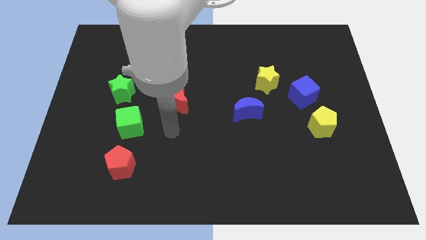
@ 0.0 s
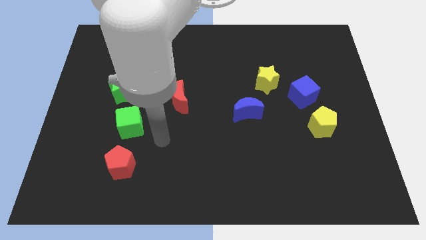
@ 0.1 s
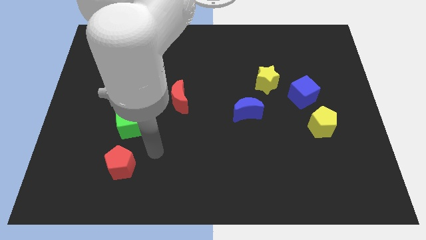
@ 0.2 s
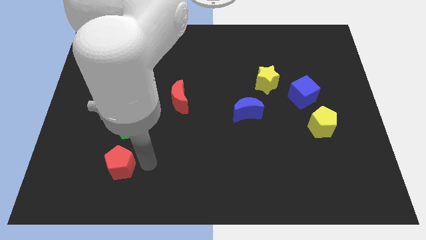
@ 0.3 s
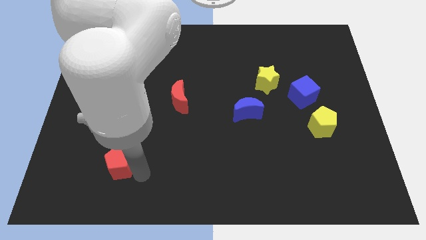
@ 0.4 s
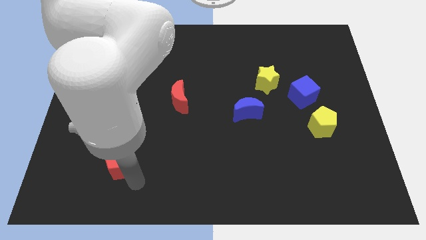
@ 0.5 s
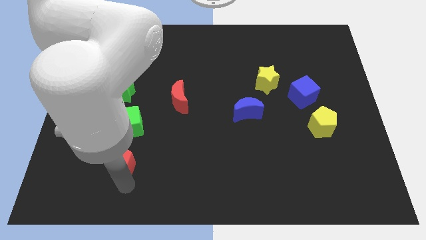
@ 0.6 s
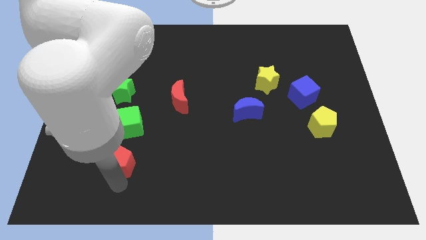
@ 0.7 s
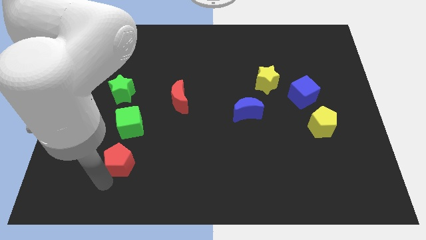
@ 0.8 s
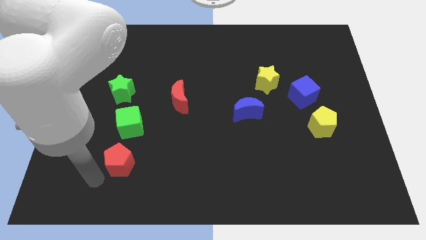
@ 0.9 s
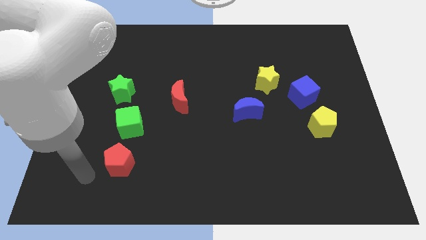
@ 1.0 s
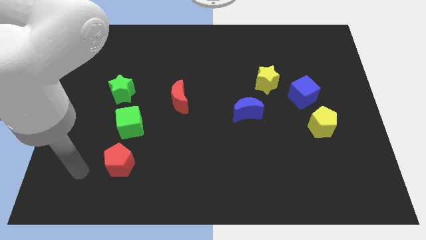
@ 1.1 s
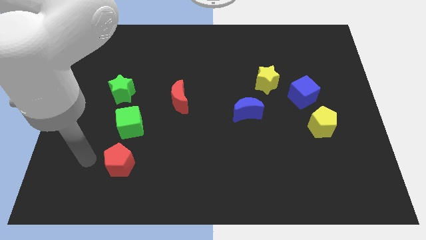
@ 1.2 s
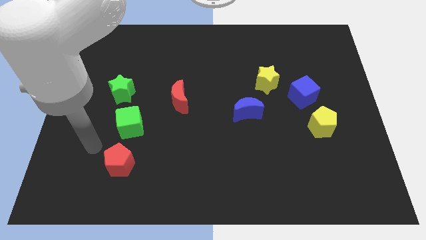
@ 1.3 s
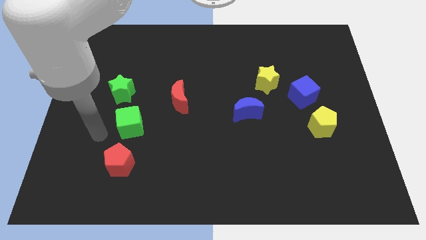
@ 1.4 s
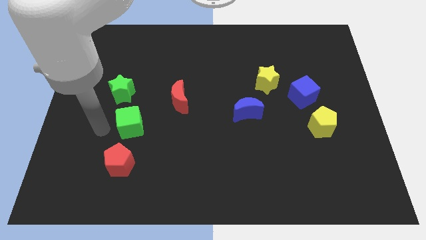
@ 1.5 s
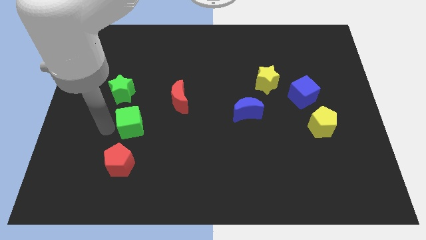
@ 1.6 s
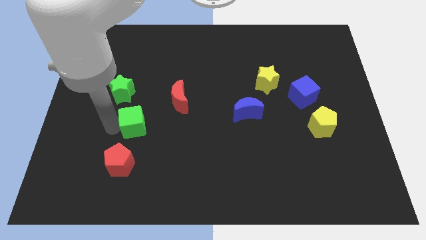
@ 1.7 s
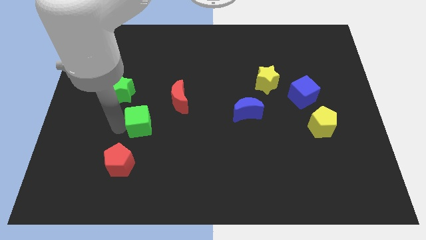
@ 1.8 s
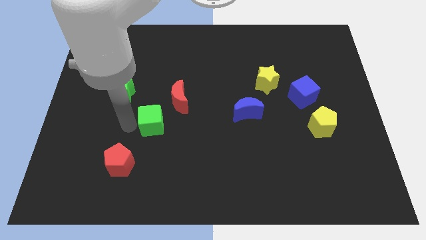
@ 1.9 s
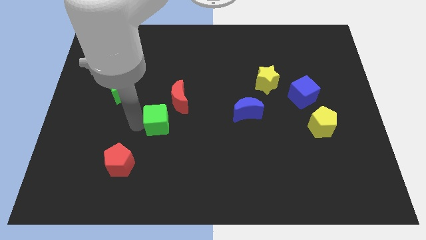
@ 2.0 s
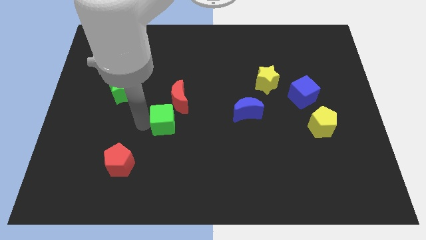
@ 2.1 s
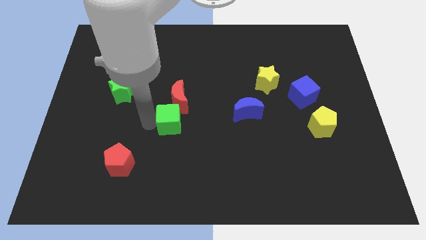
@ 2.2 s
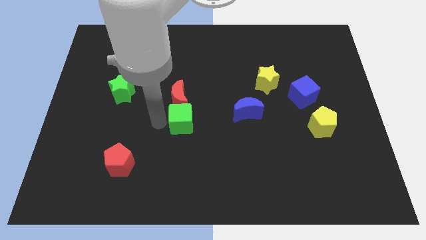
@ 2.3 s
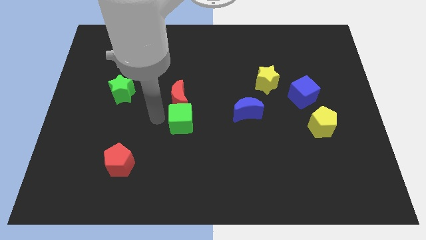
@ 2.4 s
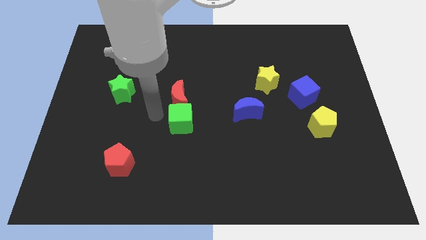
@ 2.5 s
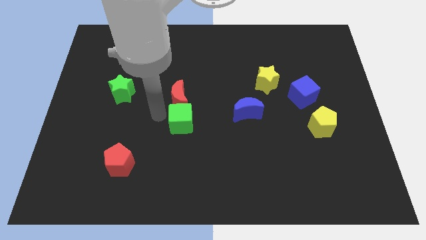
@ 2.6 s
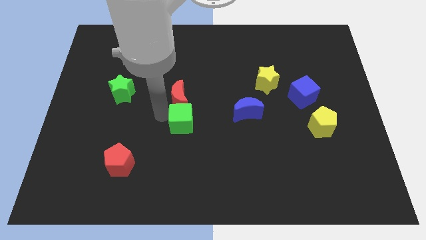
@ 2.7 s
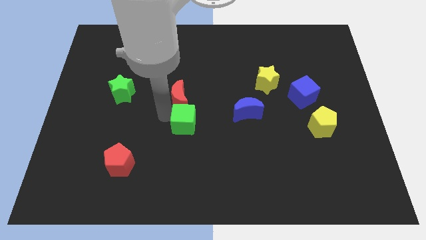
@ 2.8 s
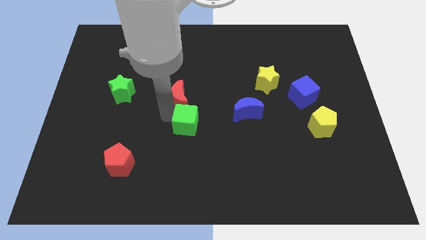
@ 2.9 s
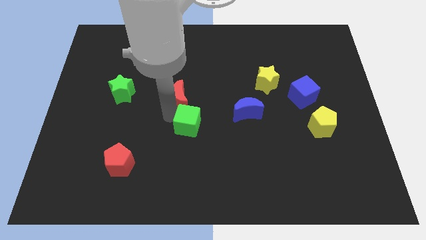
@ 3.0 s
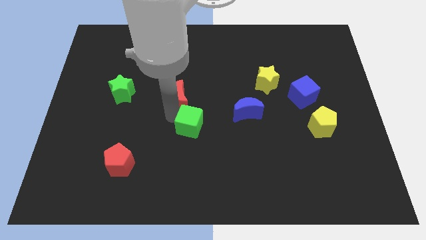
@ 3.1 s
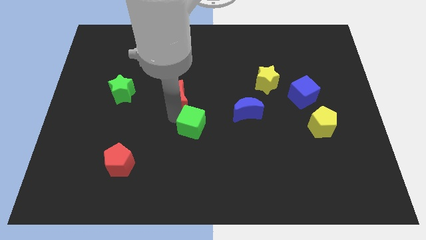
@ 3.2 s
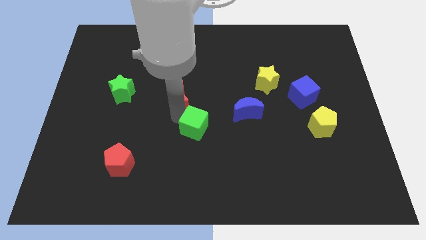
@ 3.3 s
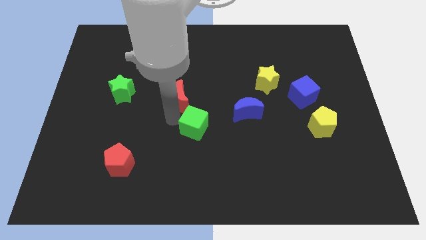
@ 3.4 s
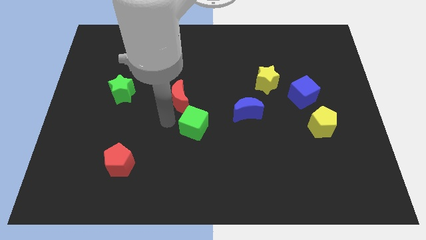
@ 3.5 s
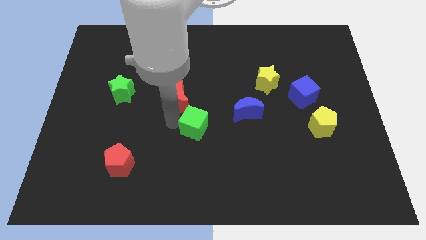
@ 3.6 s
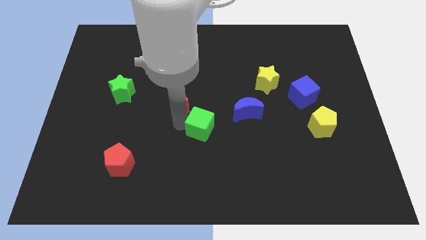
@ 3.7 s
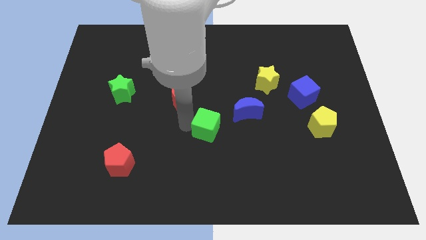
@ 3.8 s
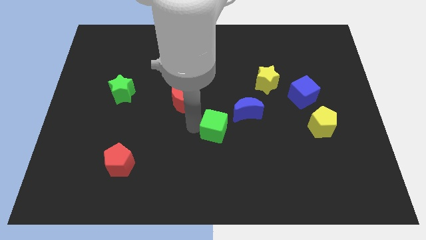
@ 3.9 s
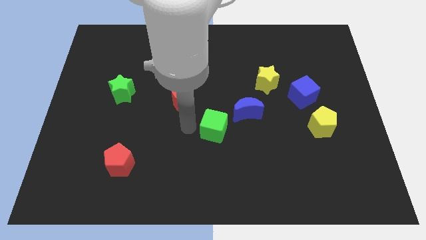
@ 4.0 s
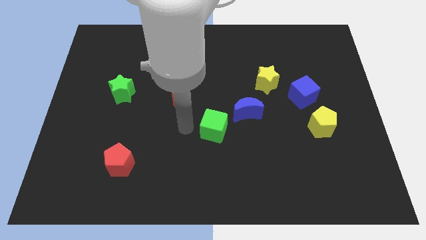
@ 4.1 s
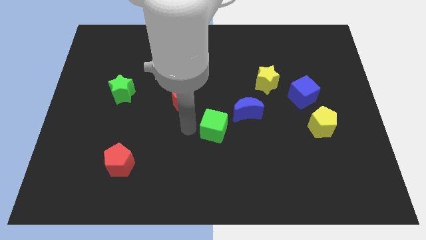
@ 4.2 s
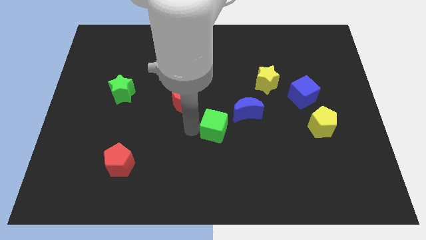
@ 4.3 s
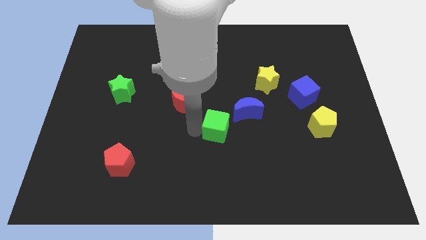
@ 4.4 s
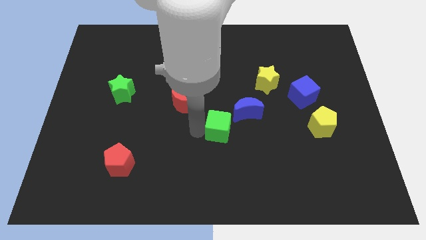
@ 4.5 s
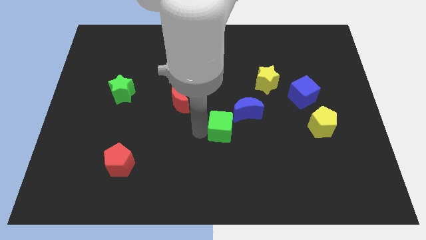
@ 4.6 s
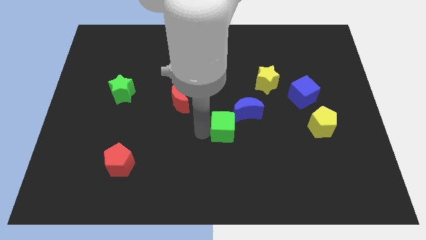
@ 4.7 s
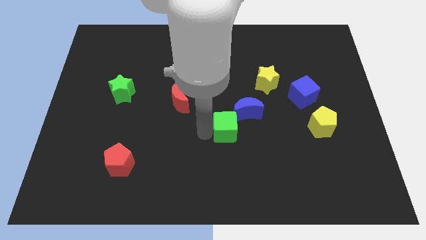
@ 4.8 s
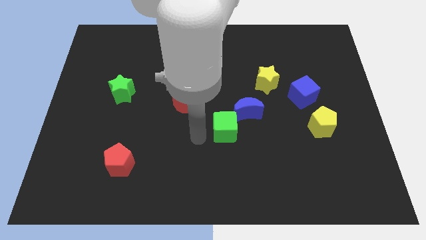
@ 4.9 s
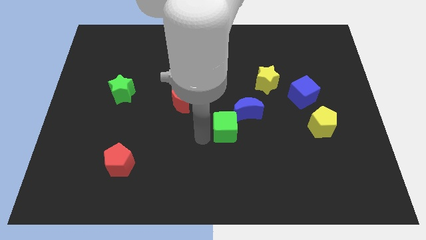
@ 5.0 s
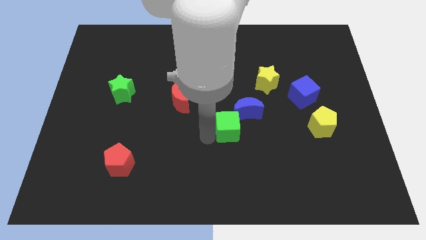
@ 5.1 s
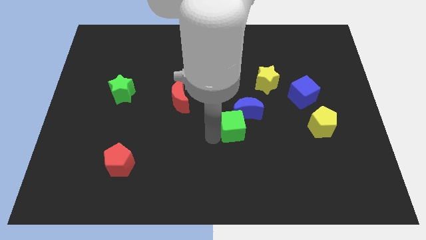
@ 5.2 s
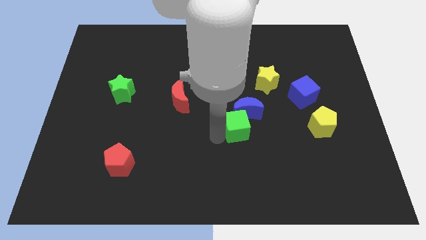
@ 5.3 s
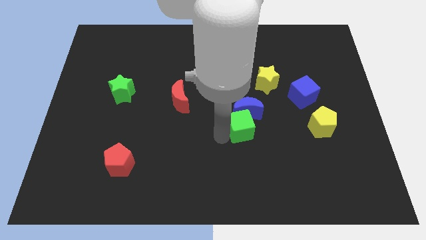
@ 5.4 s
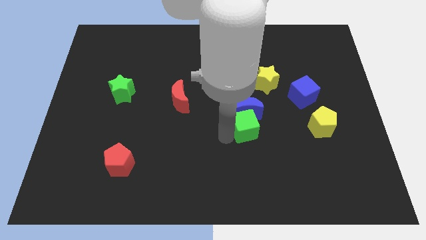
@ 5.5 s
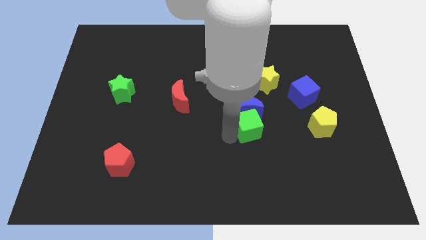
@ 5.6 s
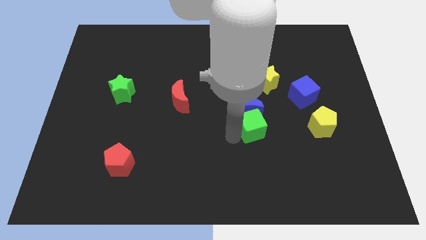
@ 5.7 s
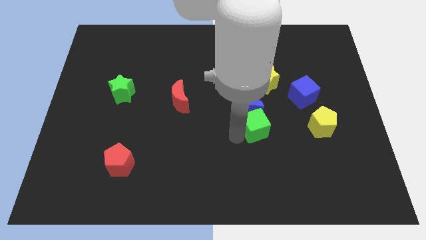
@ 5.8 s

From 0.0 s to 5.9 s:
push the green cube to the bottom side of the yellow star

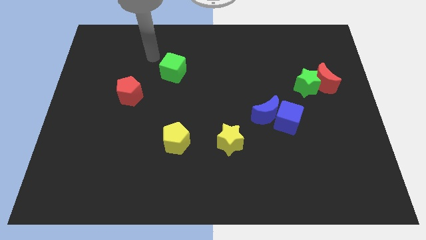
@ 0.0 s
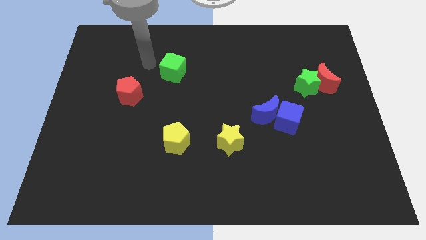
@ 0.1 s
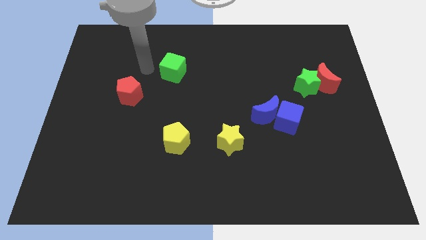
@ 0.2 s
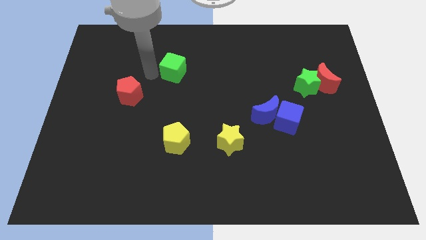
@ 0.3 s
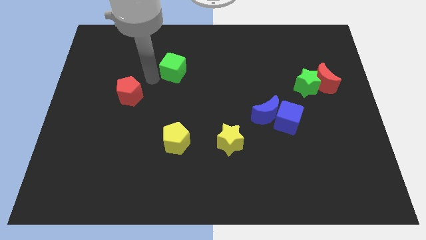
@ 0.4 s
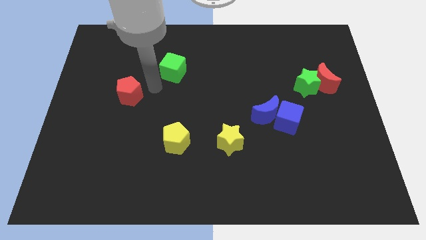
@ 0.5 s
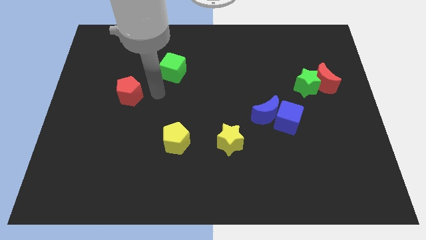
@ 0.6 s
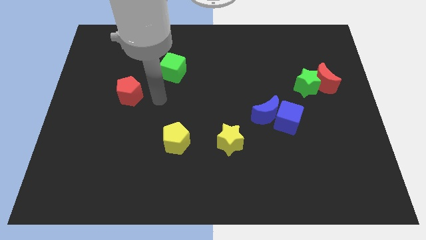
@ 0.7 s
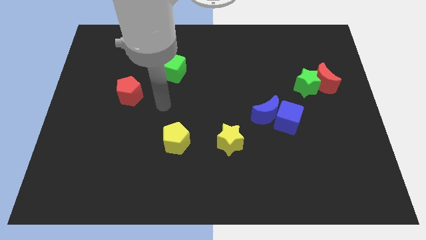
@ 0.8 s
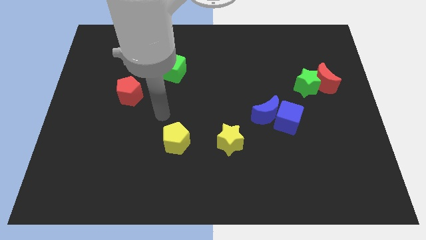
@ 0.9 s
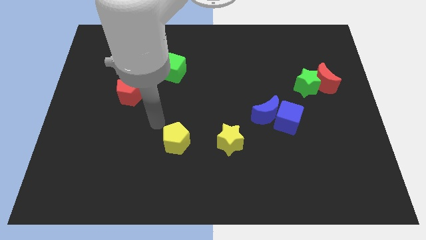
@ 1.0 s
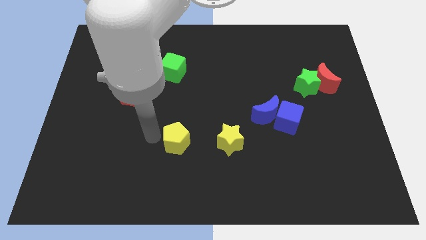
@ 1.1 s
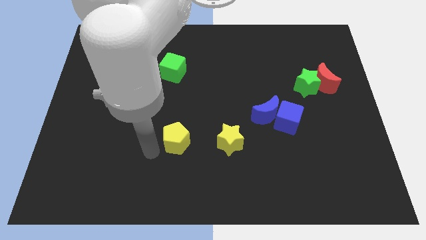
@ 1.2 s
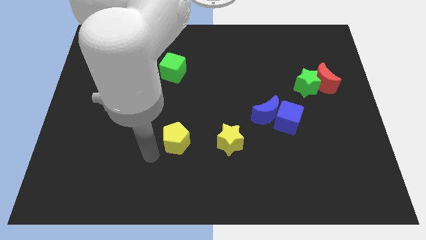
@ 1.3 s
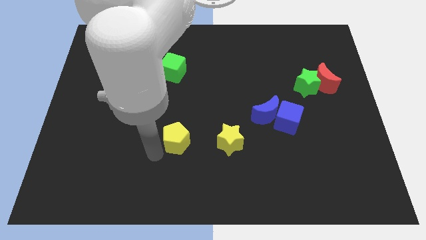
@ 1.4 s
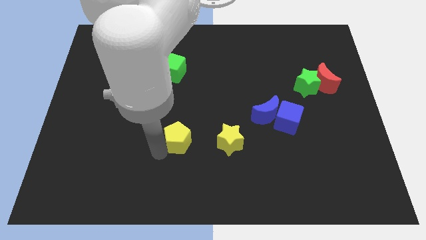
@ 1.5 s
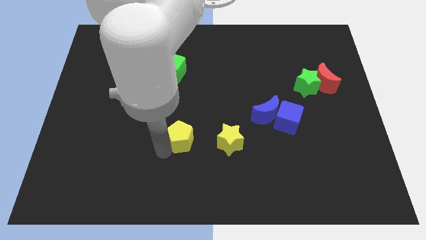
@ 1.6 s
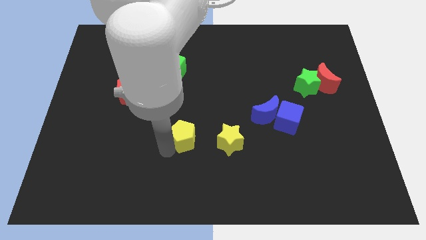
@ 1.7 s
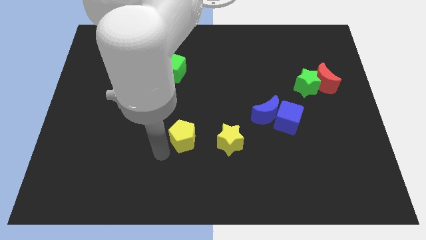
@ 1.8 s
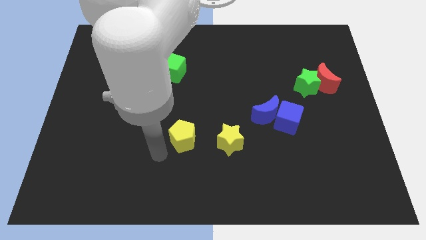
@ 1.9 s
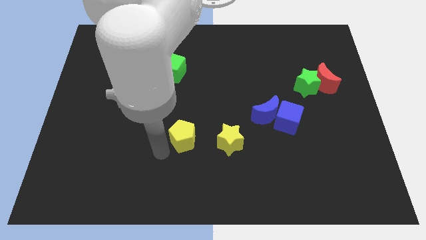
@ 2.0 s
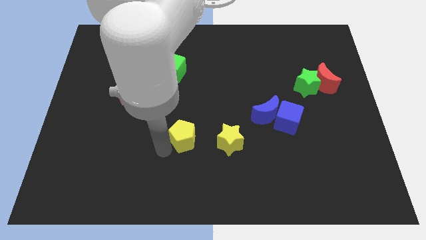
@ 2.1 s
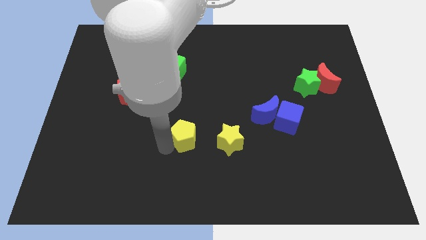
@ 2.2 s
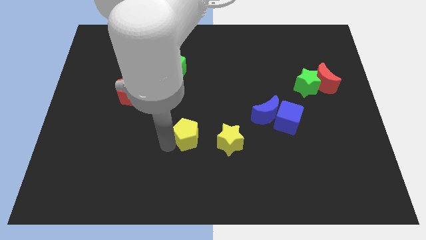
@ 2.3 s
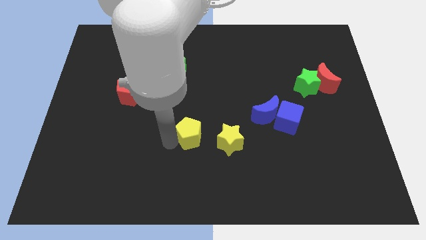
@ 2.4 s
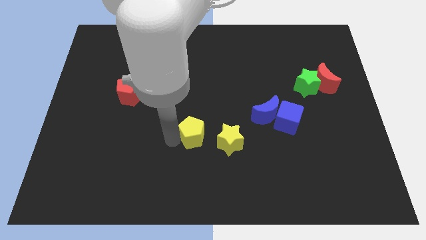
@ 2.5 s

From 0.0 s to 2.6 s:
put the yellow pentagon to the top left of the yellow star
